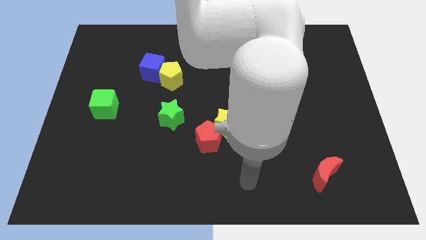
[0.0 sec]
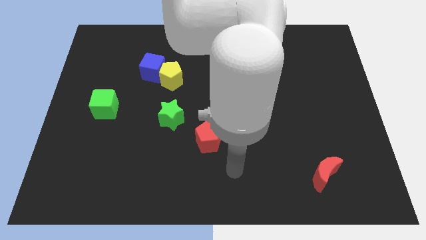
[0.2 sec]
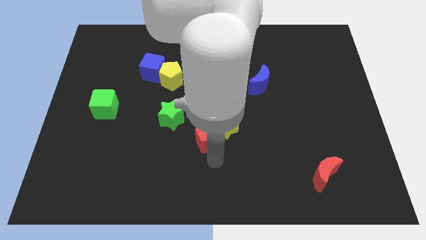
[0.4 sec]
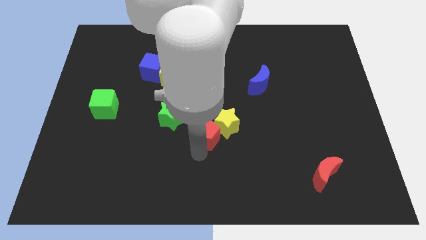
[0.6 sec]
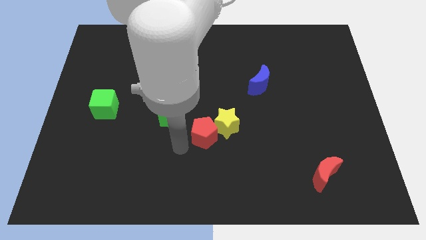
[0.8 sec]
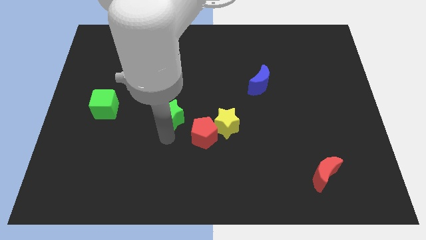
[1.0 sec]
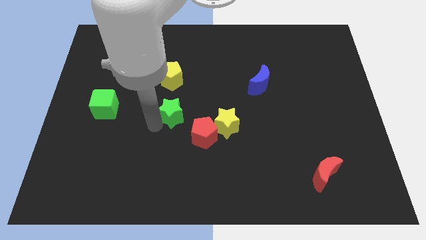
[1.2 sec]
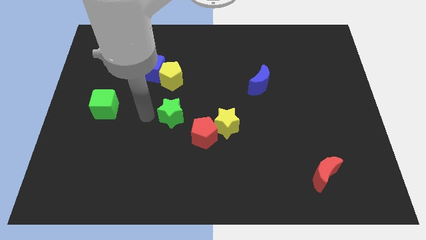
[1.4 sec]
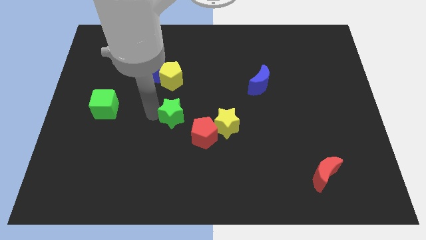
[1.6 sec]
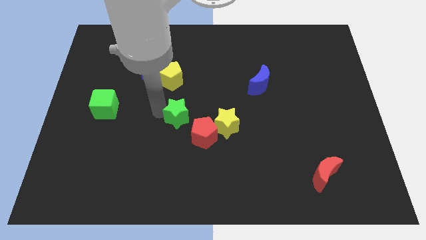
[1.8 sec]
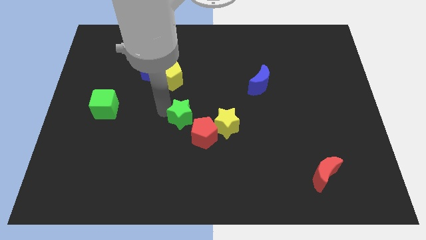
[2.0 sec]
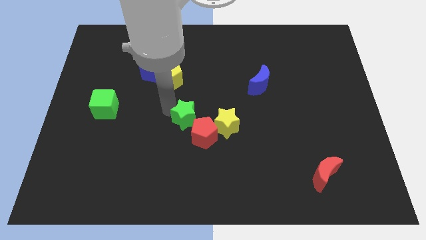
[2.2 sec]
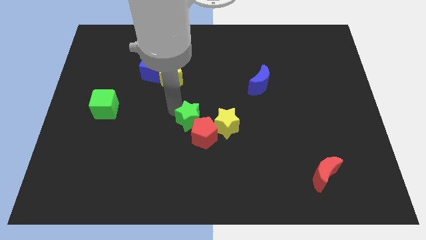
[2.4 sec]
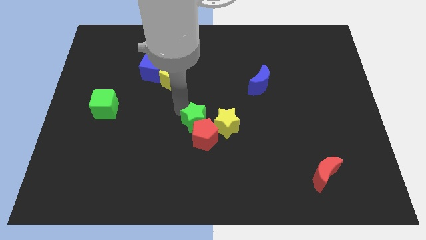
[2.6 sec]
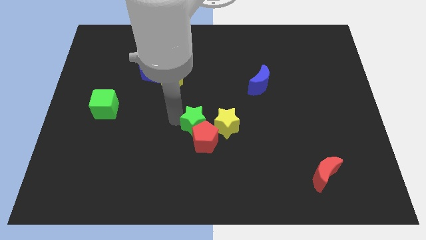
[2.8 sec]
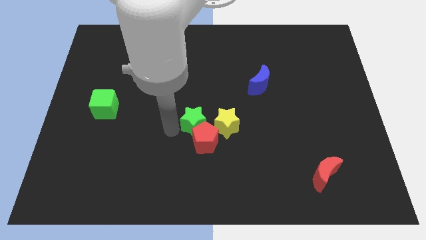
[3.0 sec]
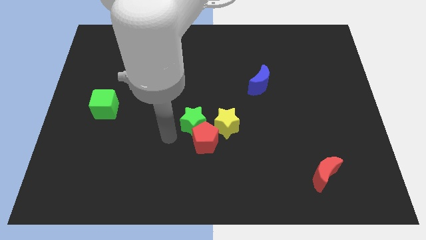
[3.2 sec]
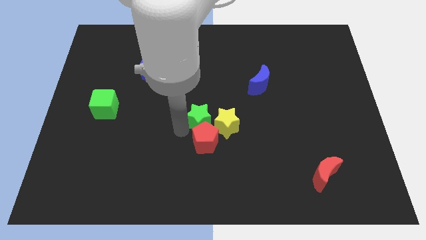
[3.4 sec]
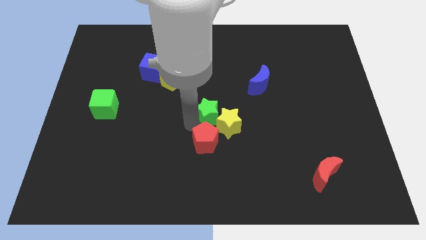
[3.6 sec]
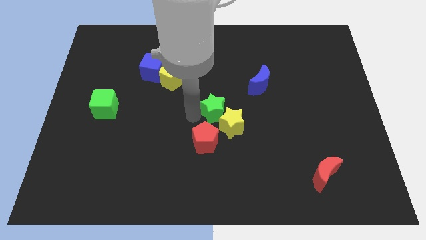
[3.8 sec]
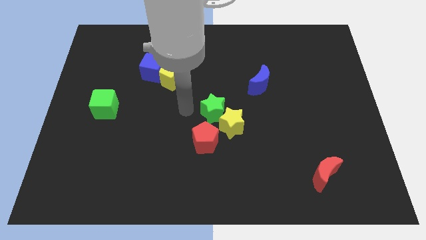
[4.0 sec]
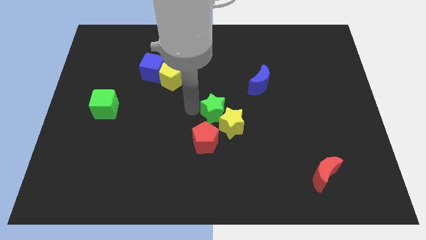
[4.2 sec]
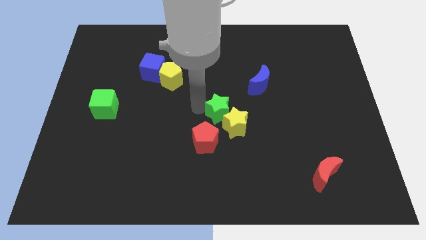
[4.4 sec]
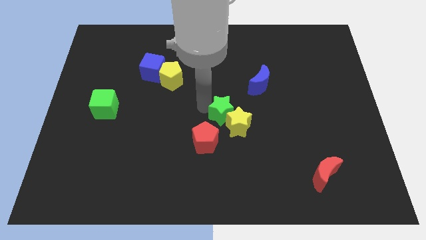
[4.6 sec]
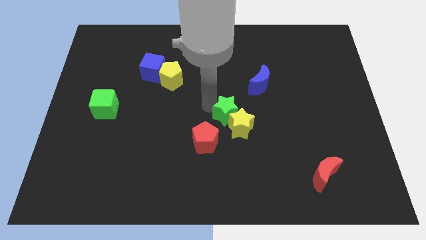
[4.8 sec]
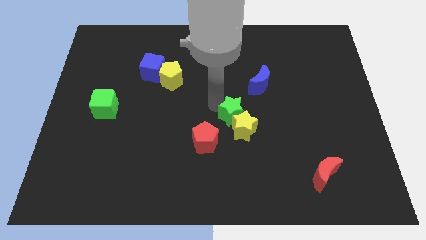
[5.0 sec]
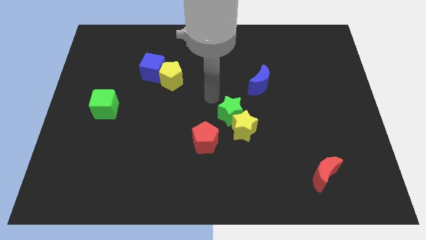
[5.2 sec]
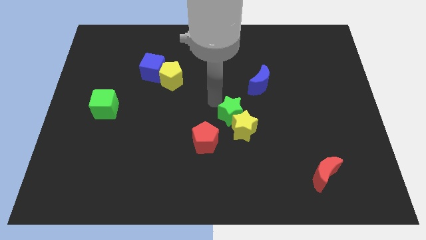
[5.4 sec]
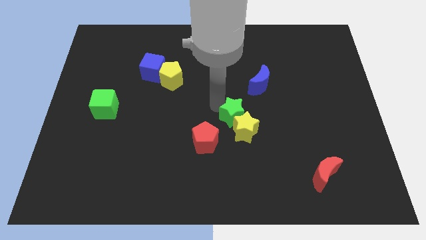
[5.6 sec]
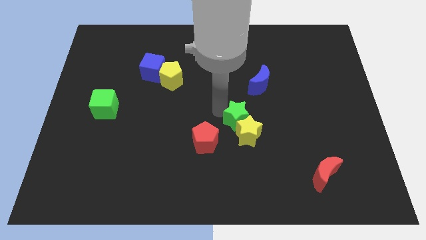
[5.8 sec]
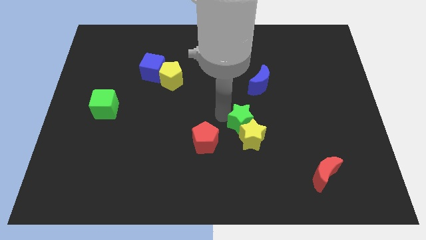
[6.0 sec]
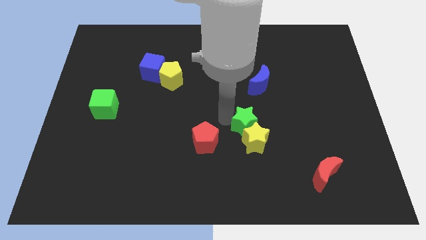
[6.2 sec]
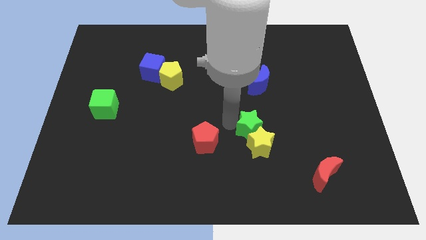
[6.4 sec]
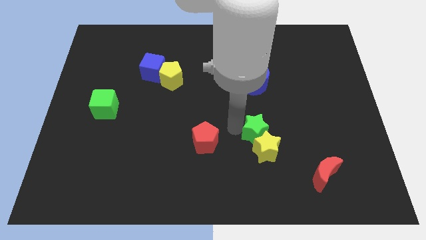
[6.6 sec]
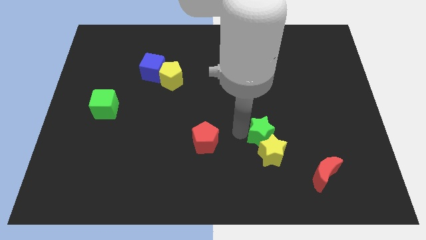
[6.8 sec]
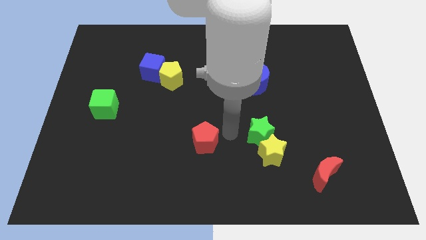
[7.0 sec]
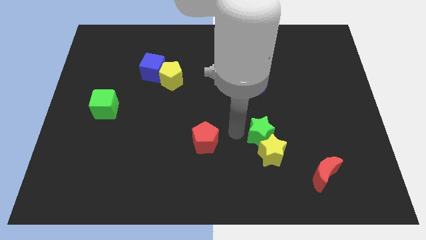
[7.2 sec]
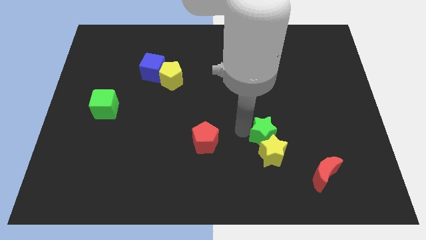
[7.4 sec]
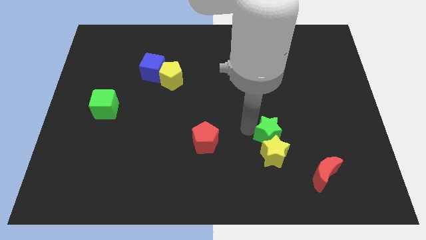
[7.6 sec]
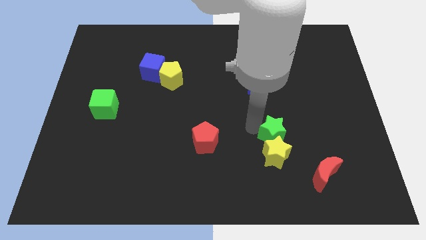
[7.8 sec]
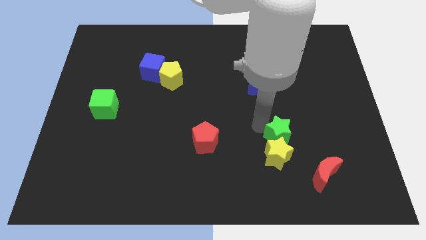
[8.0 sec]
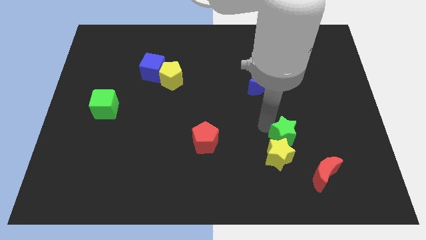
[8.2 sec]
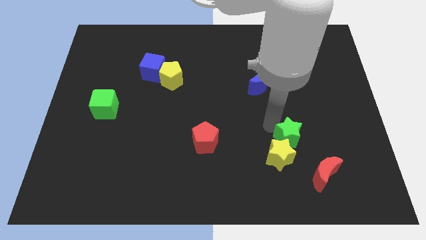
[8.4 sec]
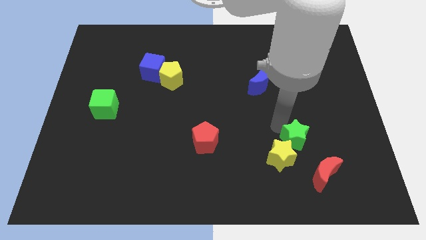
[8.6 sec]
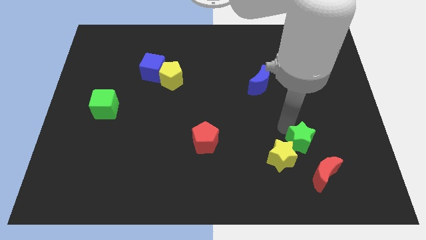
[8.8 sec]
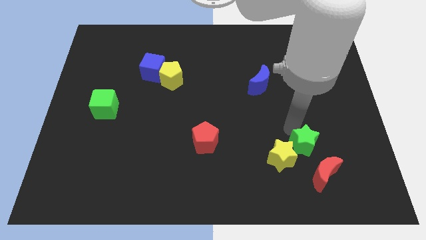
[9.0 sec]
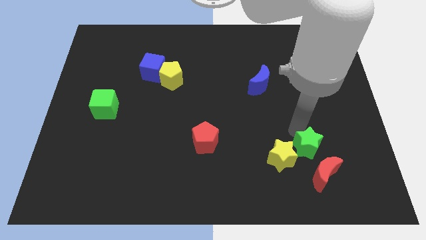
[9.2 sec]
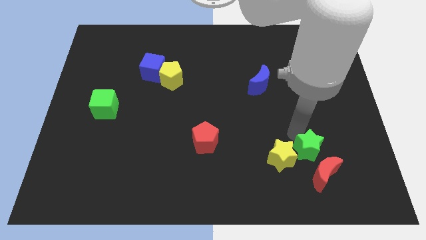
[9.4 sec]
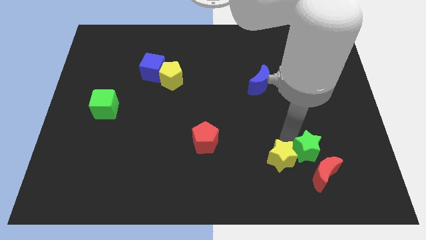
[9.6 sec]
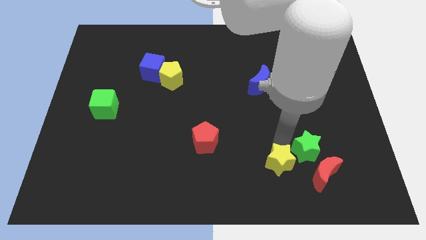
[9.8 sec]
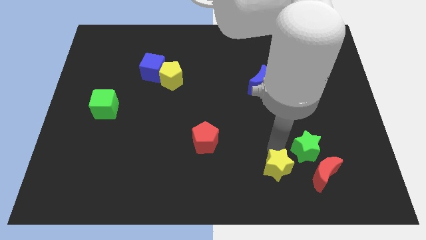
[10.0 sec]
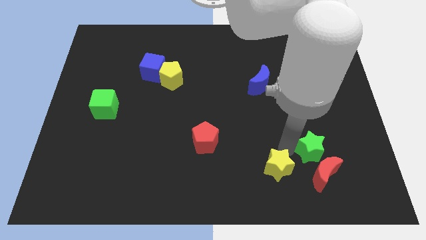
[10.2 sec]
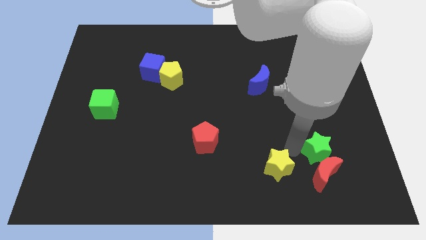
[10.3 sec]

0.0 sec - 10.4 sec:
slide the green star to the top right side of the red moon

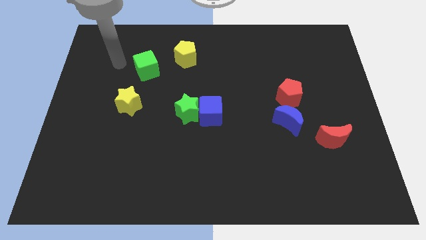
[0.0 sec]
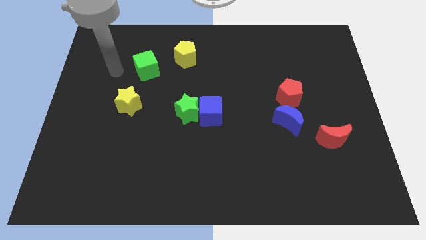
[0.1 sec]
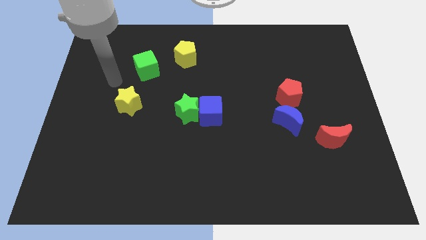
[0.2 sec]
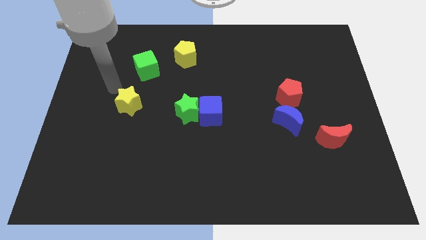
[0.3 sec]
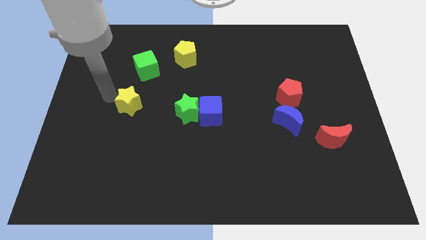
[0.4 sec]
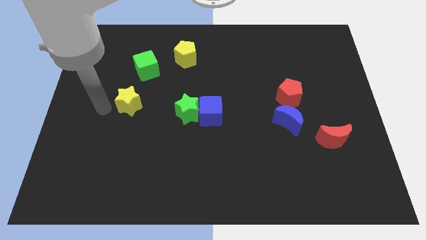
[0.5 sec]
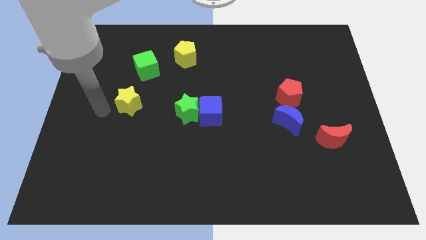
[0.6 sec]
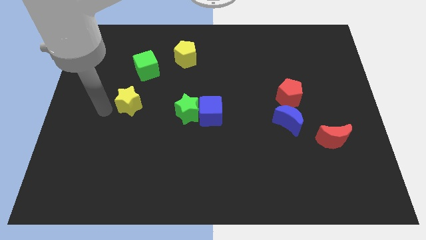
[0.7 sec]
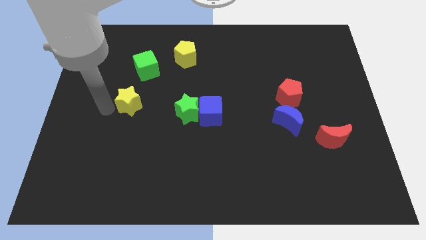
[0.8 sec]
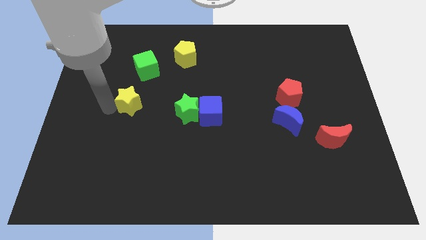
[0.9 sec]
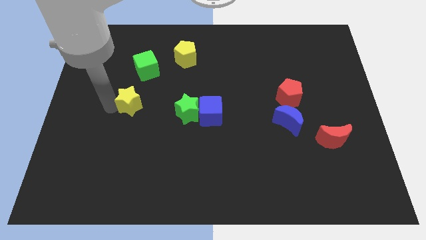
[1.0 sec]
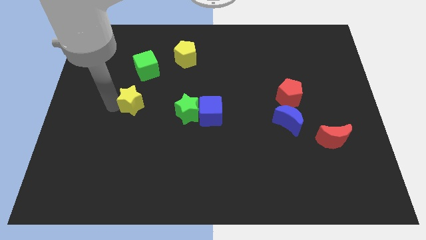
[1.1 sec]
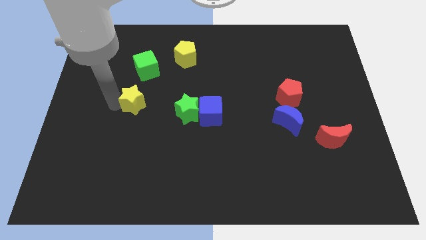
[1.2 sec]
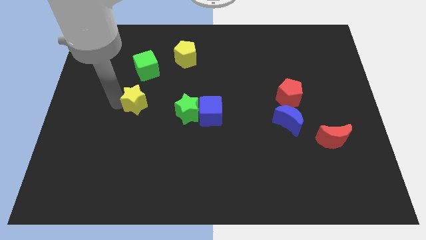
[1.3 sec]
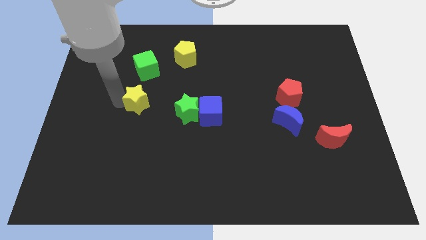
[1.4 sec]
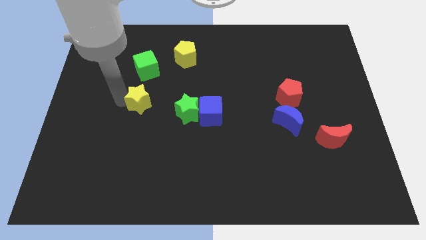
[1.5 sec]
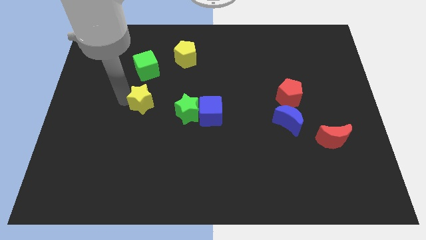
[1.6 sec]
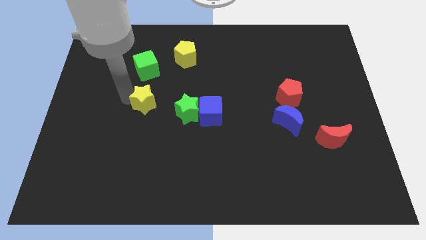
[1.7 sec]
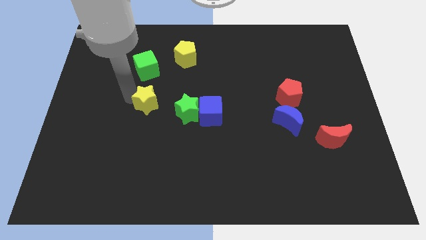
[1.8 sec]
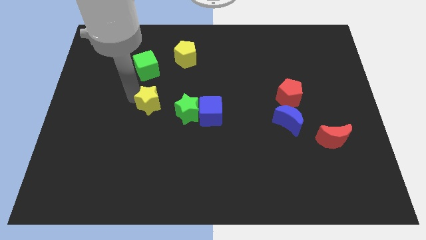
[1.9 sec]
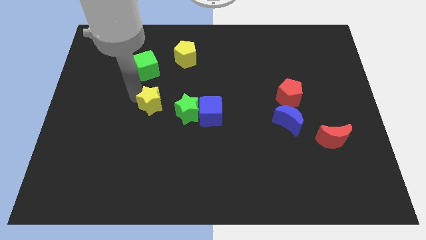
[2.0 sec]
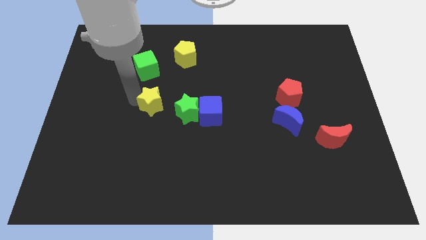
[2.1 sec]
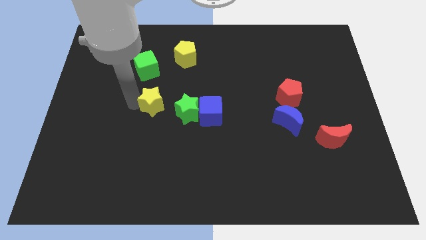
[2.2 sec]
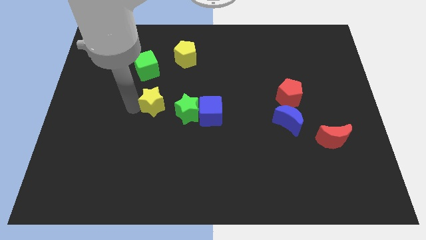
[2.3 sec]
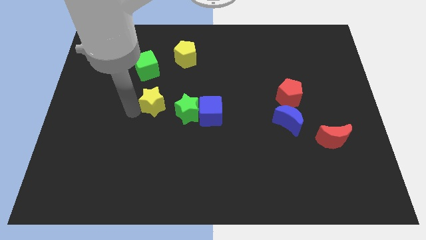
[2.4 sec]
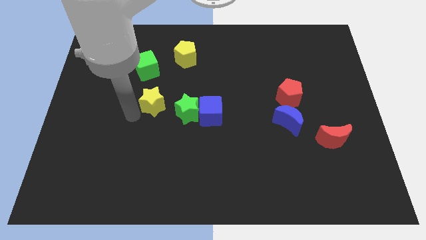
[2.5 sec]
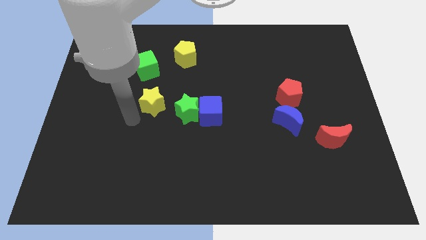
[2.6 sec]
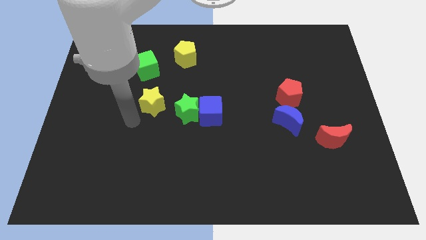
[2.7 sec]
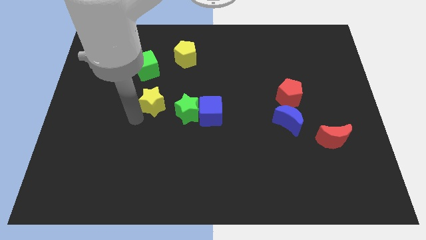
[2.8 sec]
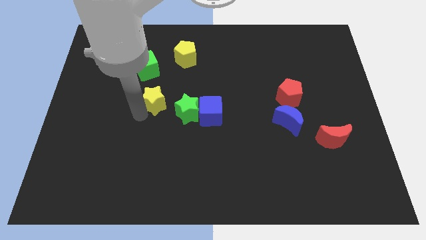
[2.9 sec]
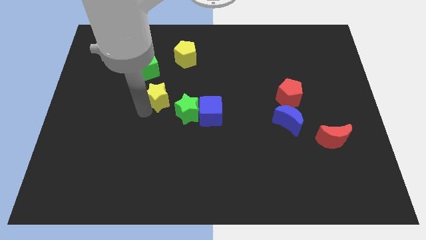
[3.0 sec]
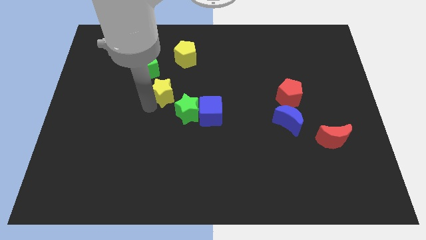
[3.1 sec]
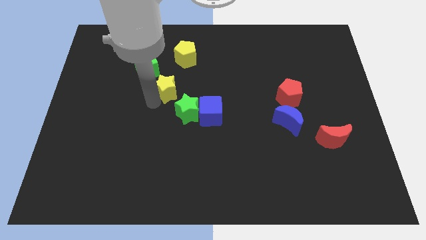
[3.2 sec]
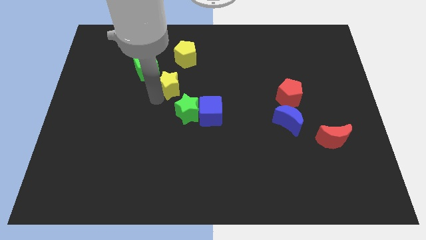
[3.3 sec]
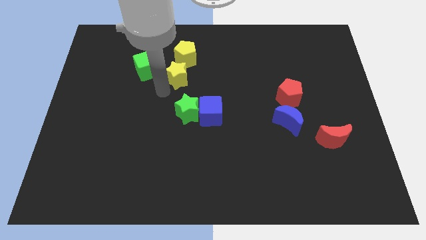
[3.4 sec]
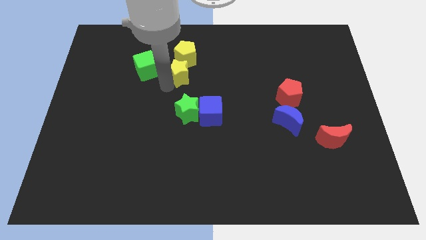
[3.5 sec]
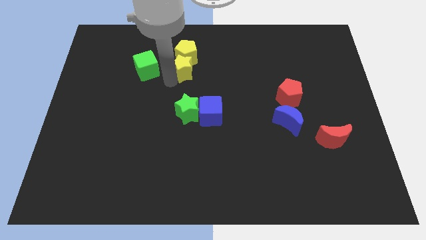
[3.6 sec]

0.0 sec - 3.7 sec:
put the yellow star diagonally down and to the right of the yellow pentagon
